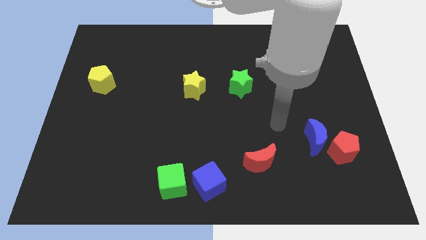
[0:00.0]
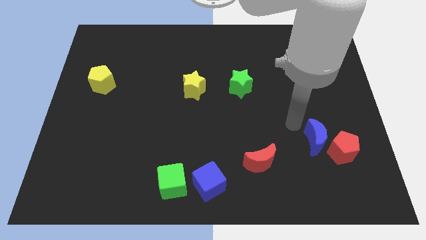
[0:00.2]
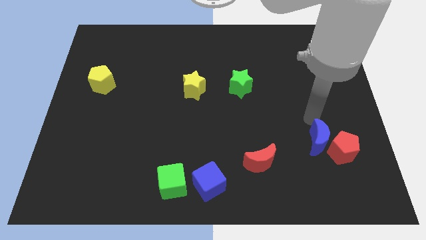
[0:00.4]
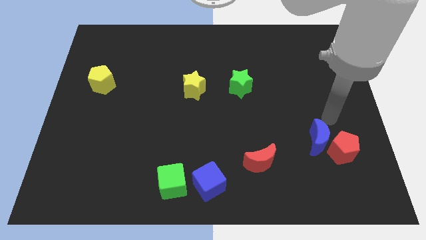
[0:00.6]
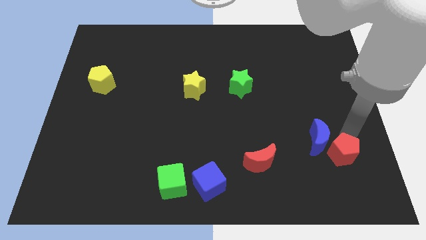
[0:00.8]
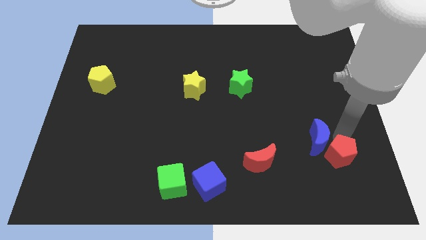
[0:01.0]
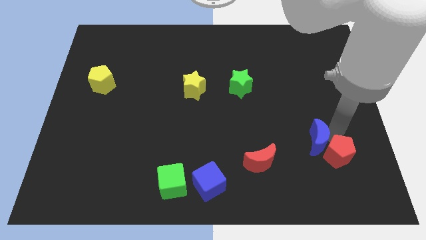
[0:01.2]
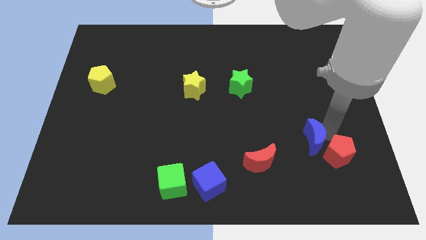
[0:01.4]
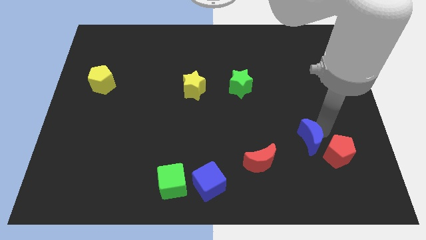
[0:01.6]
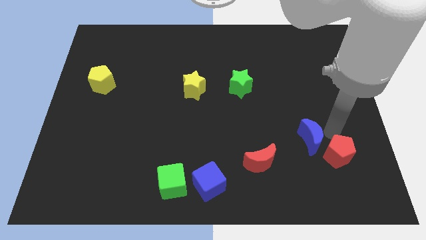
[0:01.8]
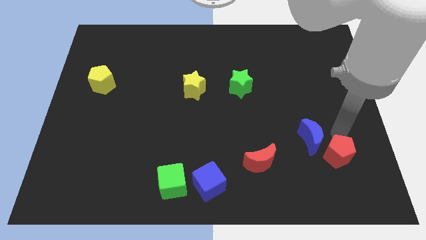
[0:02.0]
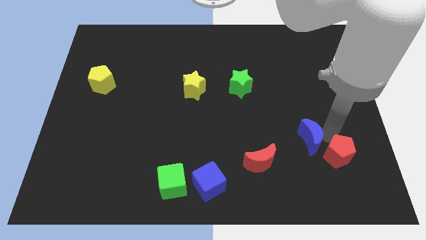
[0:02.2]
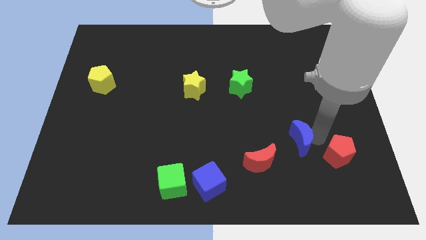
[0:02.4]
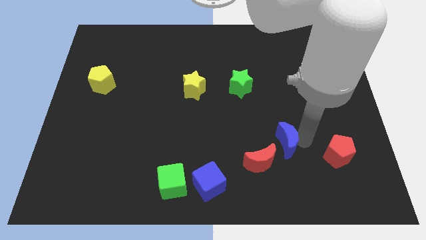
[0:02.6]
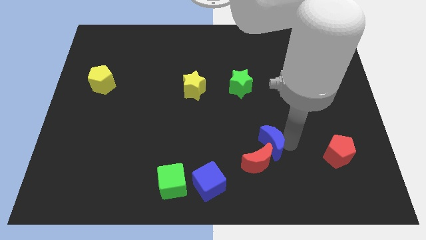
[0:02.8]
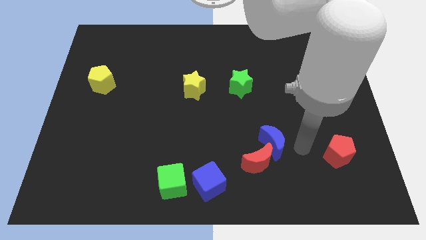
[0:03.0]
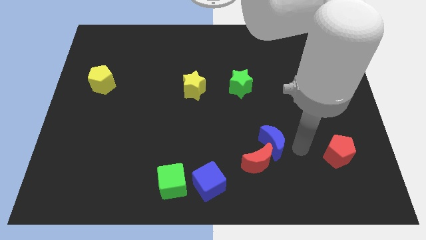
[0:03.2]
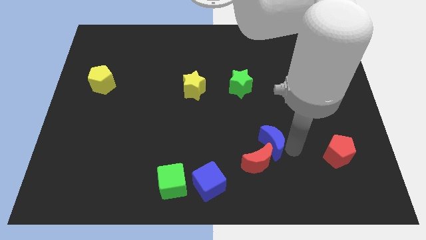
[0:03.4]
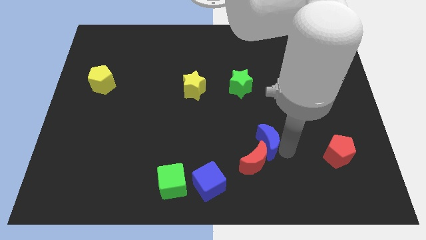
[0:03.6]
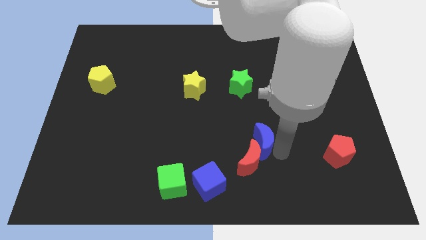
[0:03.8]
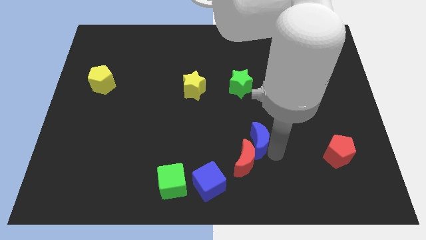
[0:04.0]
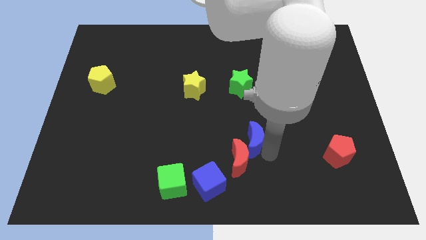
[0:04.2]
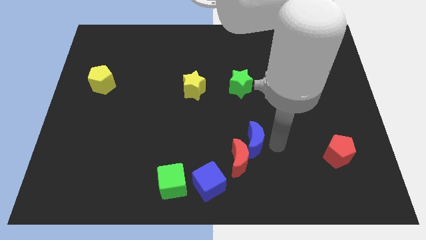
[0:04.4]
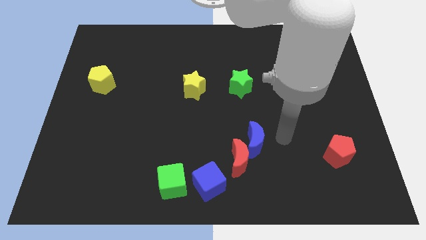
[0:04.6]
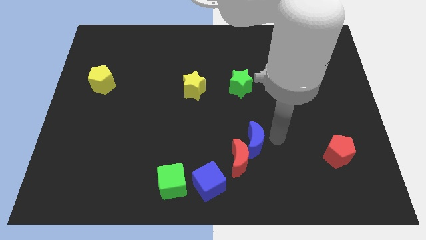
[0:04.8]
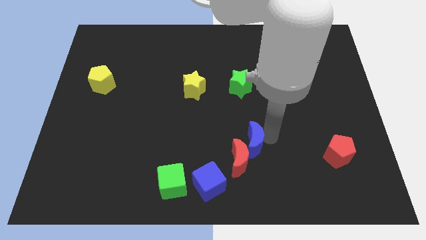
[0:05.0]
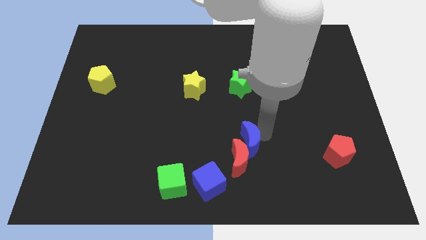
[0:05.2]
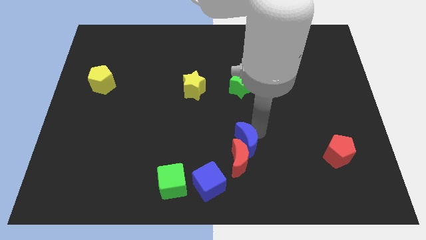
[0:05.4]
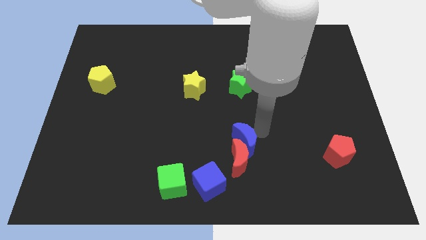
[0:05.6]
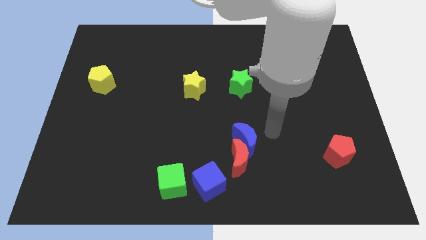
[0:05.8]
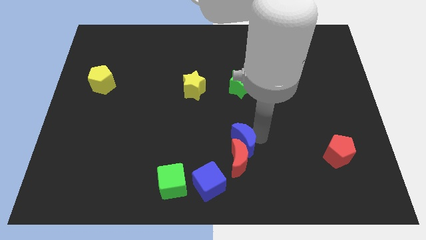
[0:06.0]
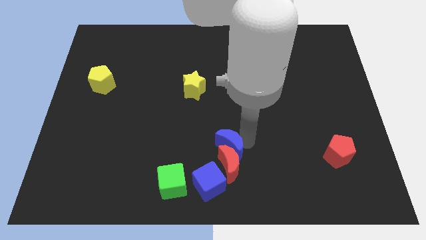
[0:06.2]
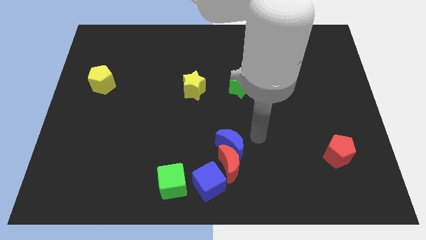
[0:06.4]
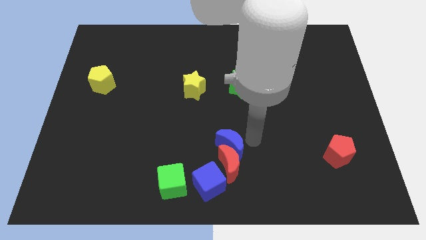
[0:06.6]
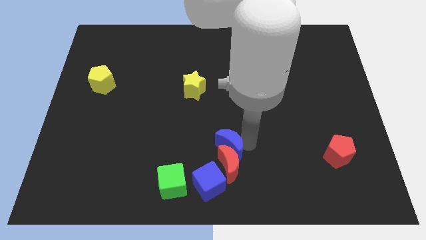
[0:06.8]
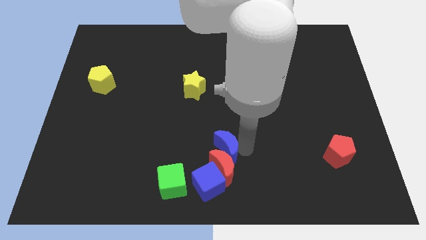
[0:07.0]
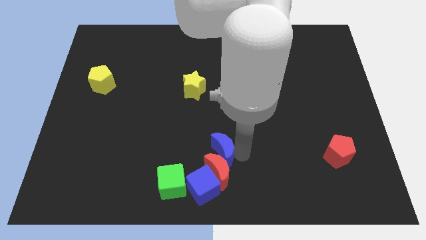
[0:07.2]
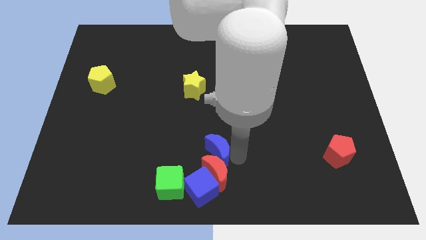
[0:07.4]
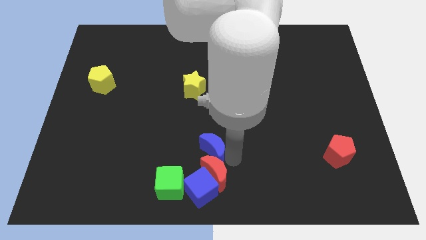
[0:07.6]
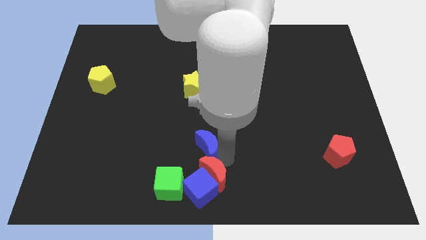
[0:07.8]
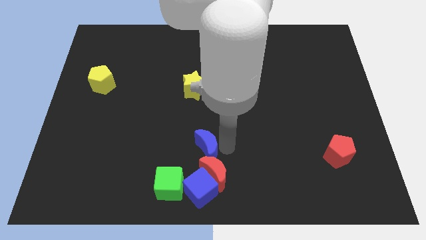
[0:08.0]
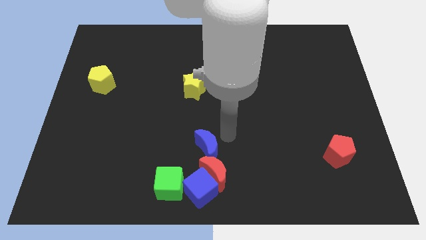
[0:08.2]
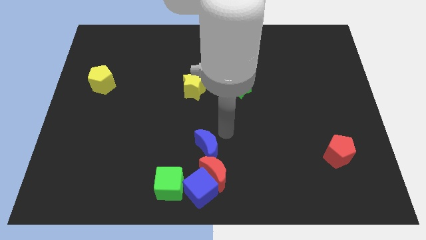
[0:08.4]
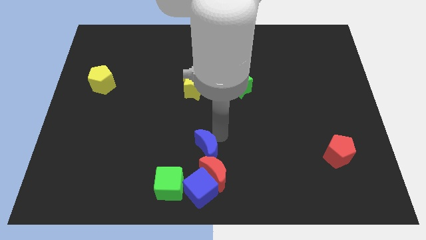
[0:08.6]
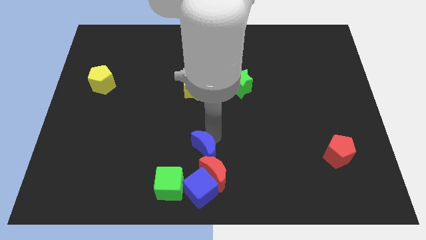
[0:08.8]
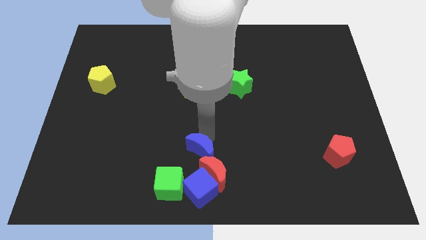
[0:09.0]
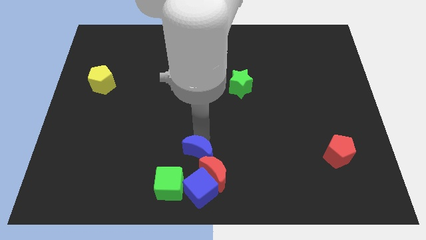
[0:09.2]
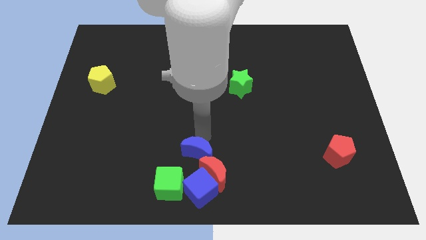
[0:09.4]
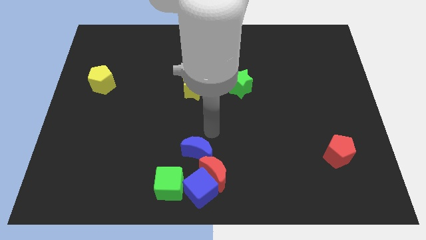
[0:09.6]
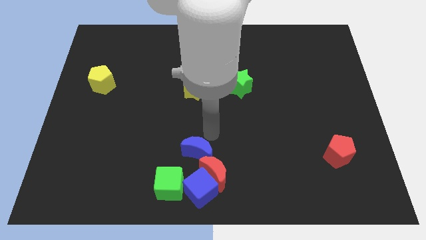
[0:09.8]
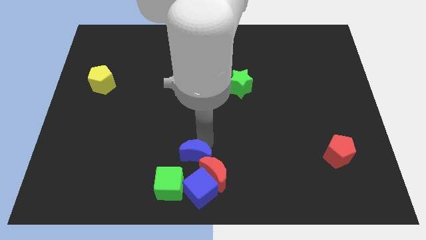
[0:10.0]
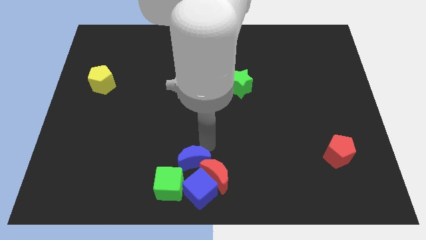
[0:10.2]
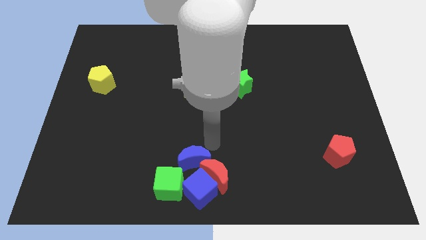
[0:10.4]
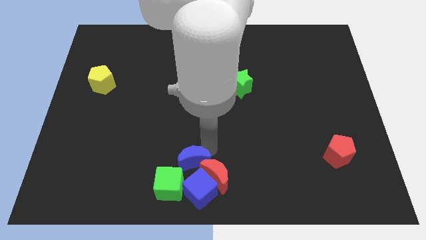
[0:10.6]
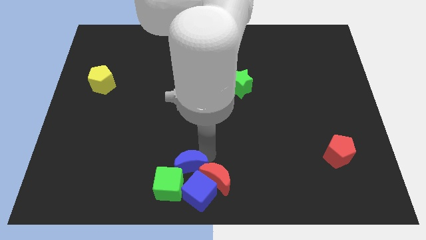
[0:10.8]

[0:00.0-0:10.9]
slide the blue moon to the green cube

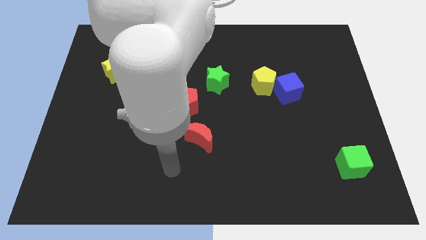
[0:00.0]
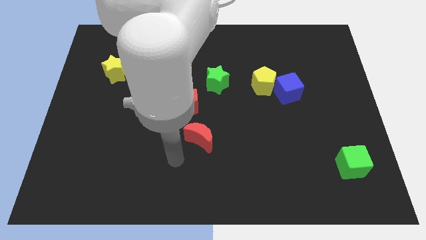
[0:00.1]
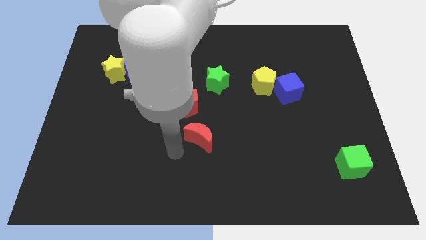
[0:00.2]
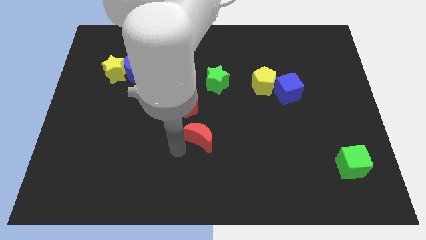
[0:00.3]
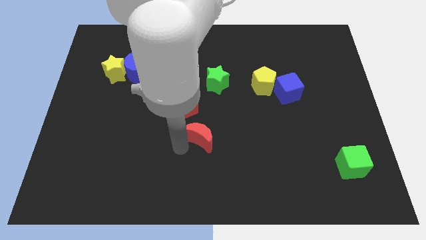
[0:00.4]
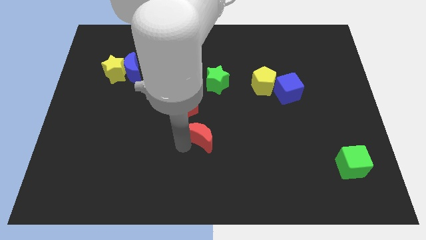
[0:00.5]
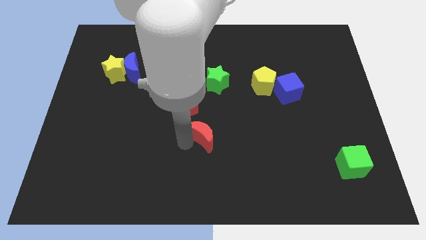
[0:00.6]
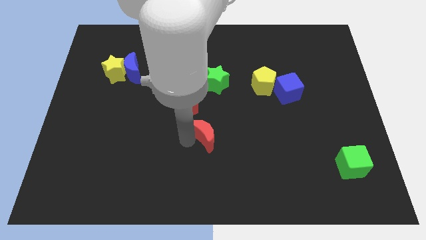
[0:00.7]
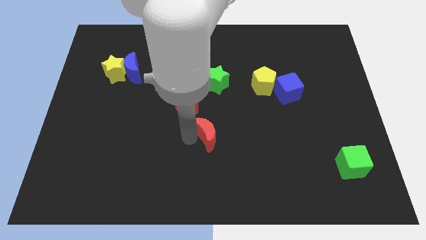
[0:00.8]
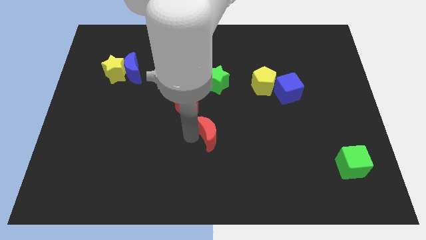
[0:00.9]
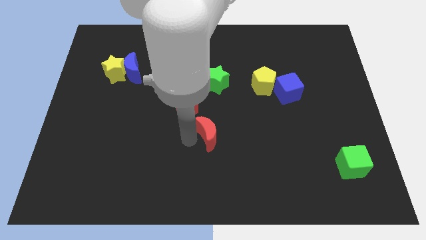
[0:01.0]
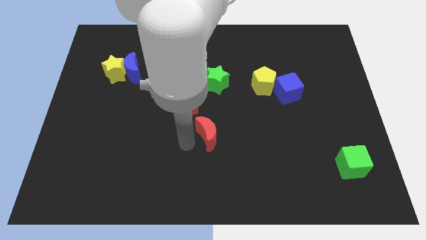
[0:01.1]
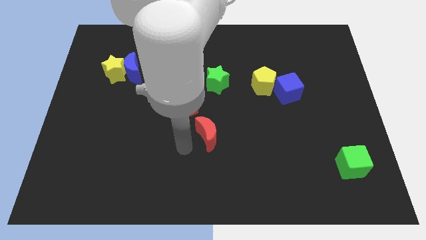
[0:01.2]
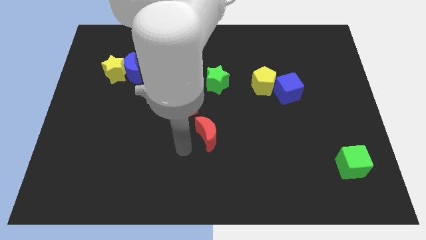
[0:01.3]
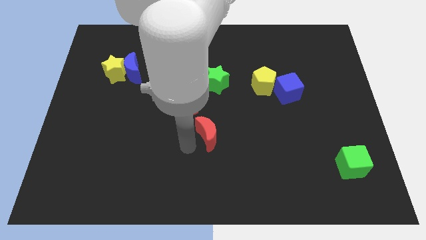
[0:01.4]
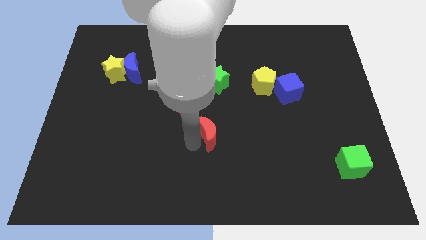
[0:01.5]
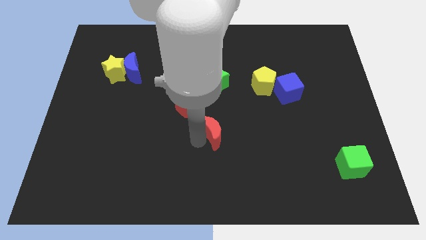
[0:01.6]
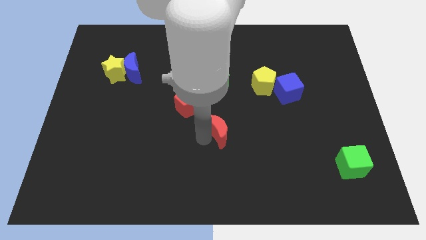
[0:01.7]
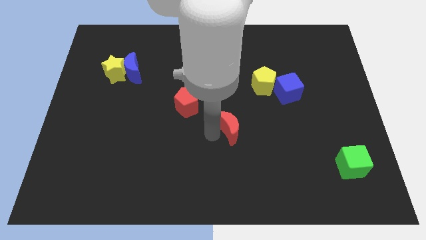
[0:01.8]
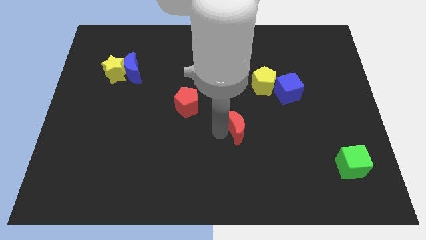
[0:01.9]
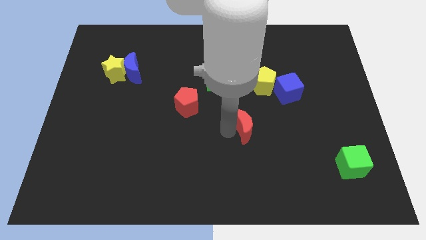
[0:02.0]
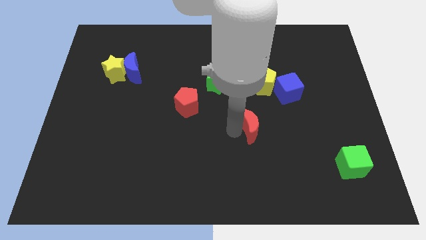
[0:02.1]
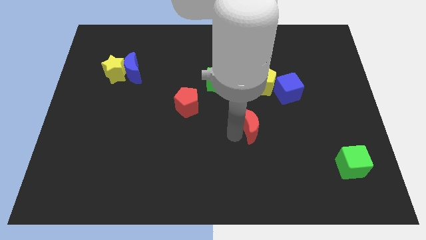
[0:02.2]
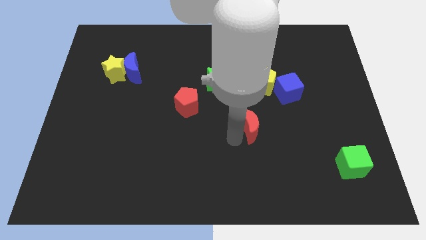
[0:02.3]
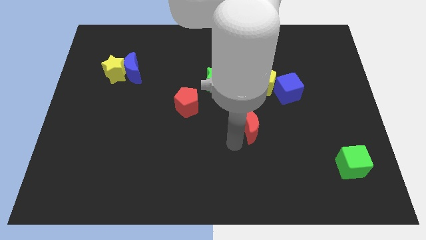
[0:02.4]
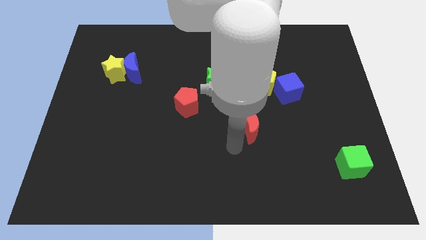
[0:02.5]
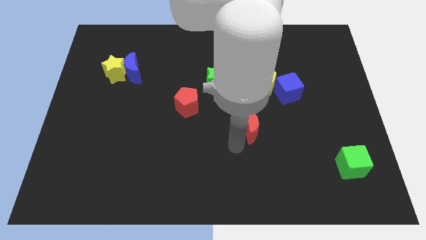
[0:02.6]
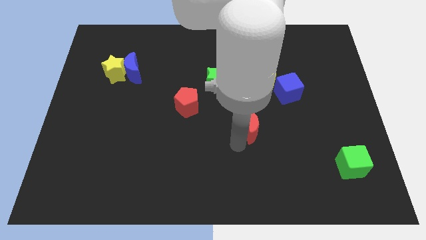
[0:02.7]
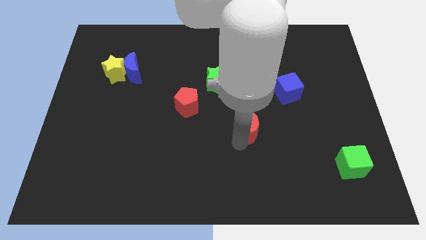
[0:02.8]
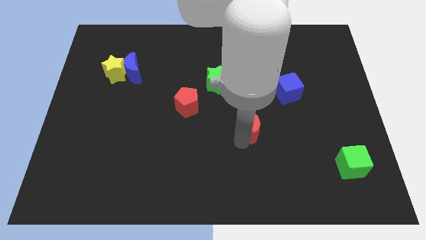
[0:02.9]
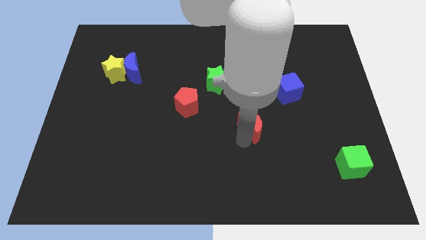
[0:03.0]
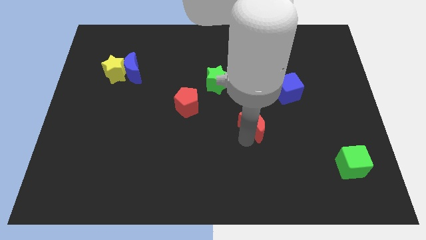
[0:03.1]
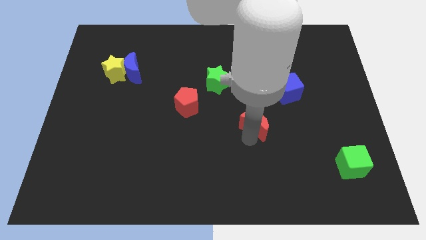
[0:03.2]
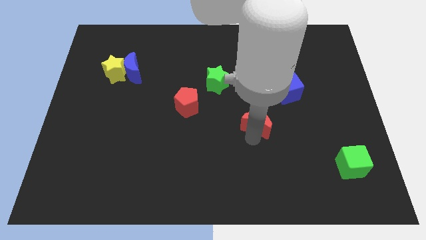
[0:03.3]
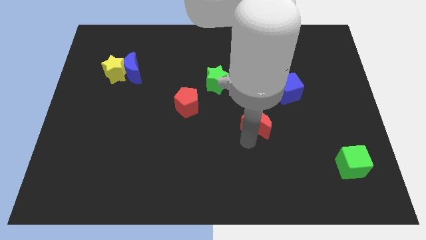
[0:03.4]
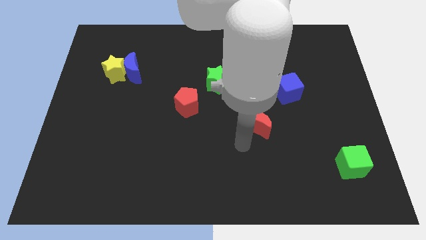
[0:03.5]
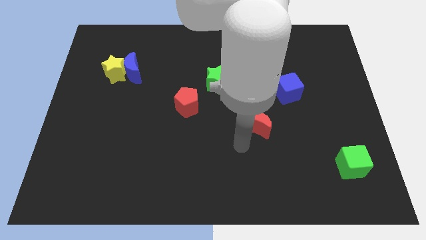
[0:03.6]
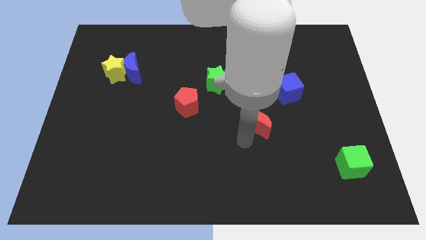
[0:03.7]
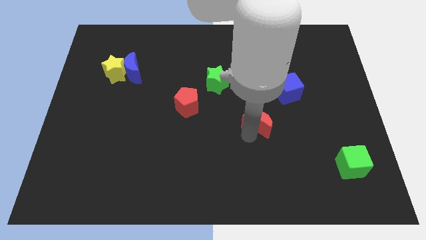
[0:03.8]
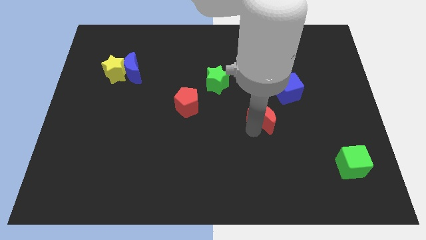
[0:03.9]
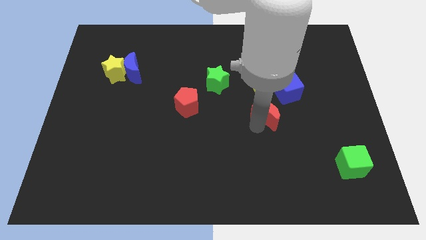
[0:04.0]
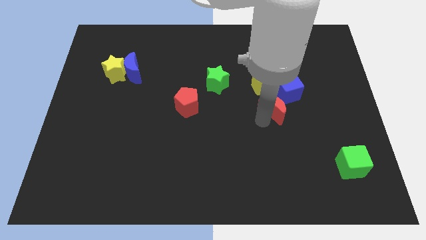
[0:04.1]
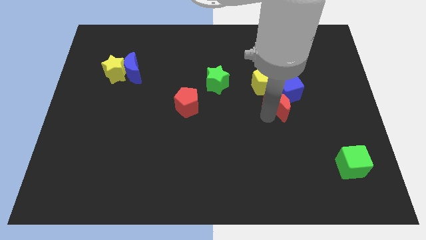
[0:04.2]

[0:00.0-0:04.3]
put the red moon towards the blue cube
